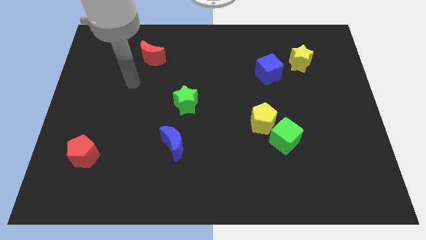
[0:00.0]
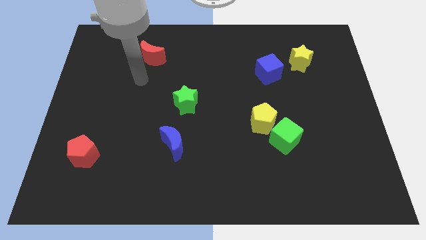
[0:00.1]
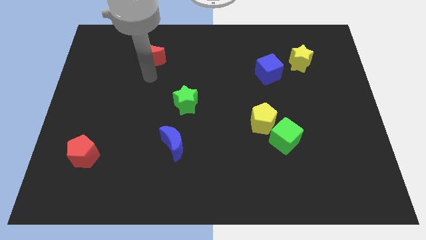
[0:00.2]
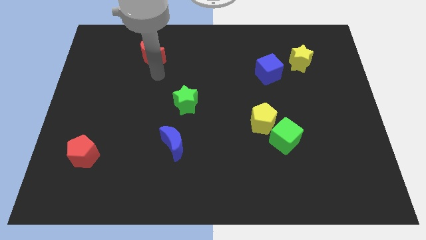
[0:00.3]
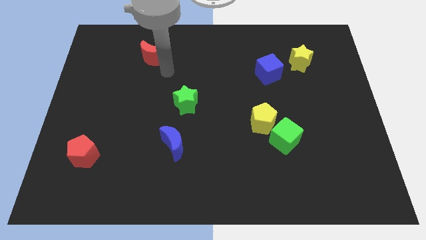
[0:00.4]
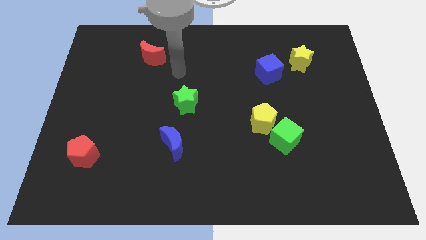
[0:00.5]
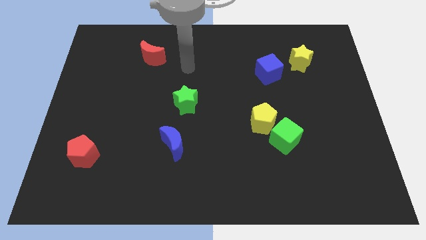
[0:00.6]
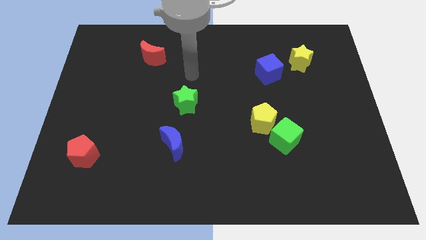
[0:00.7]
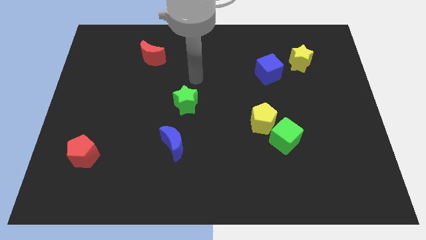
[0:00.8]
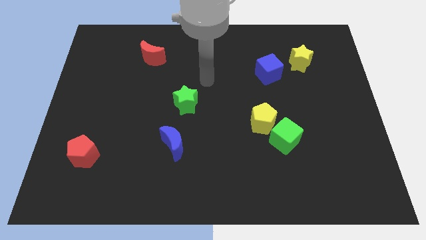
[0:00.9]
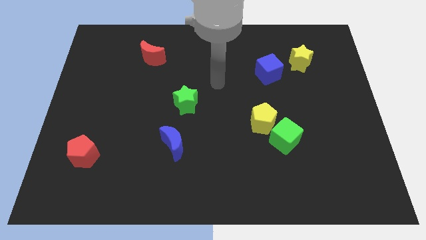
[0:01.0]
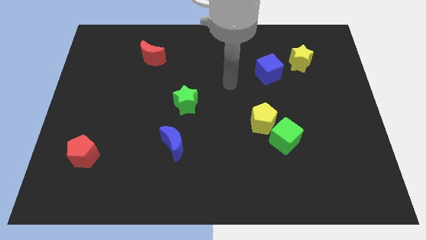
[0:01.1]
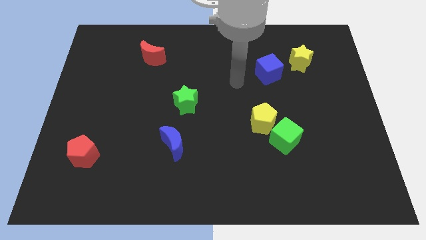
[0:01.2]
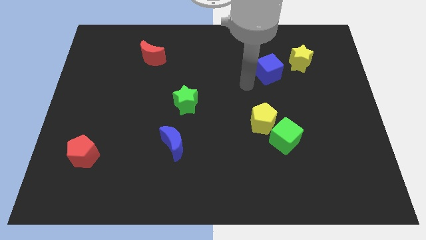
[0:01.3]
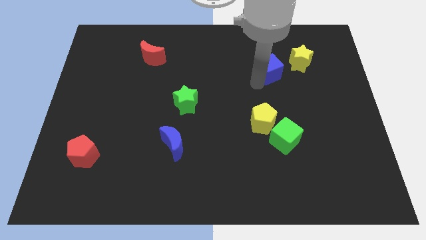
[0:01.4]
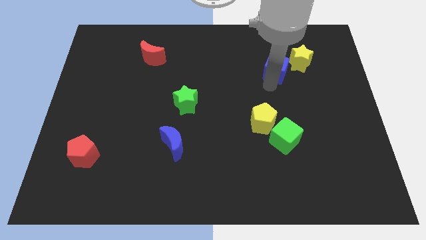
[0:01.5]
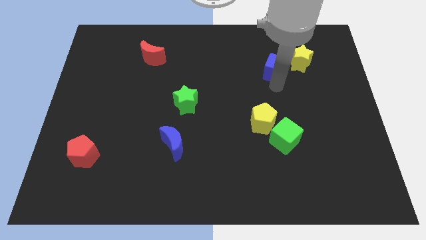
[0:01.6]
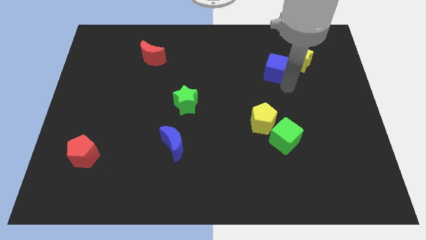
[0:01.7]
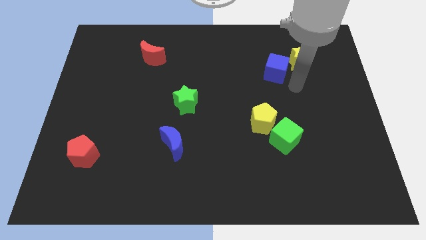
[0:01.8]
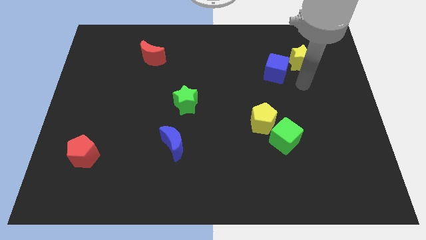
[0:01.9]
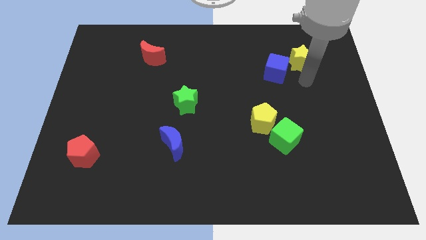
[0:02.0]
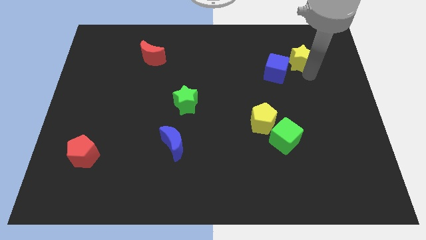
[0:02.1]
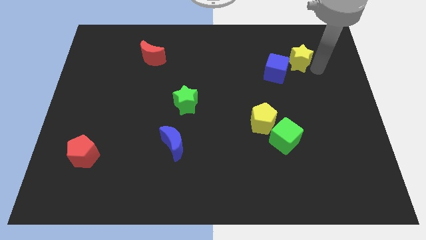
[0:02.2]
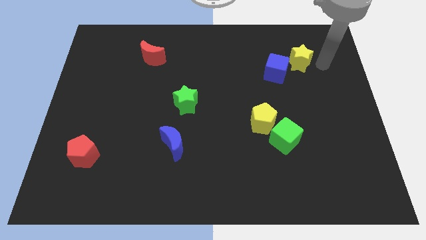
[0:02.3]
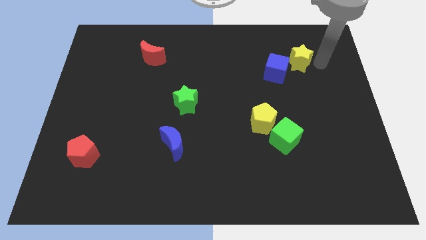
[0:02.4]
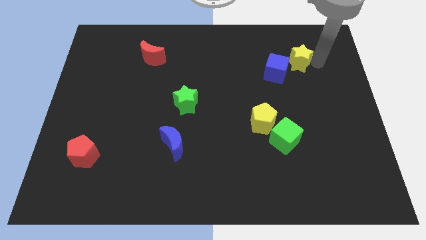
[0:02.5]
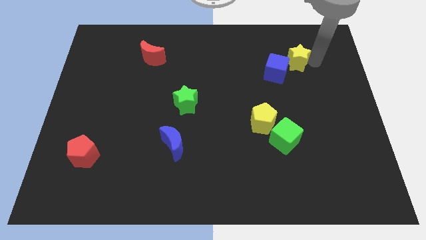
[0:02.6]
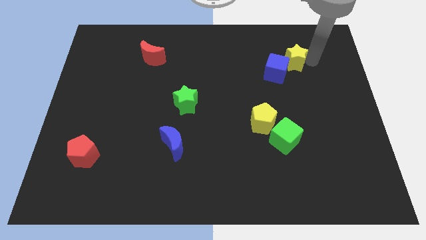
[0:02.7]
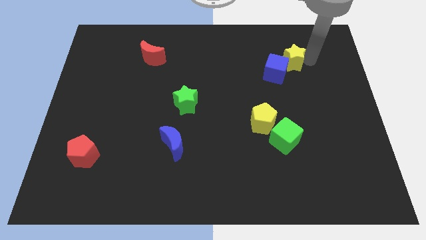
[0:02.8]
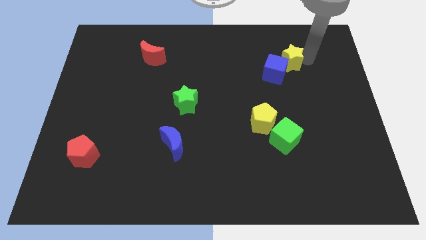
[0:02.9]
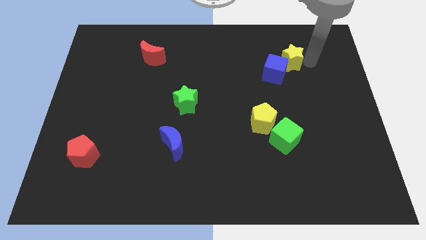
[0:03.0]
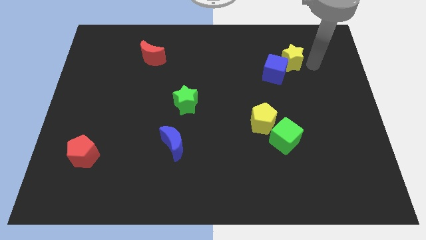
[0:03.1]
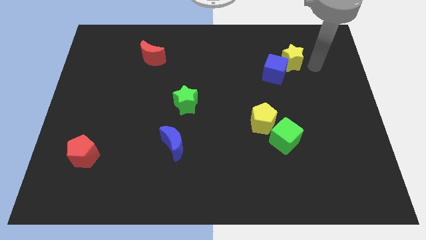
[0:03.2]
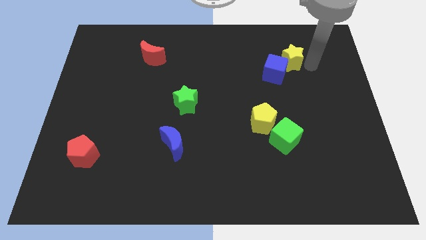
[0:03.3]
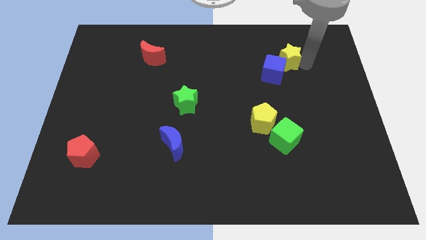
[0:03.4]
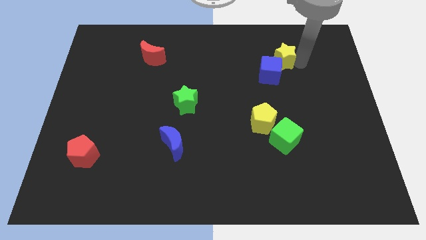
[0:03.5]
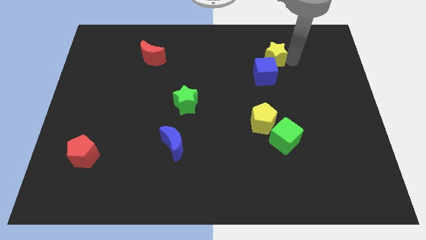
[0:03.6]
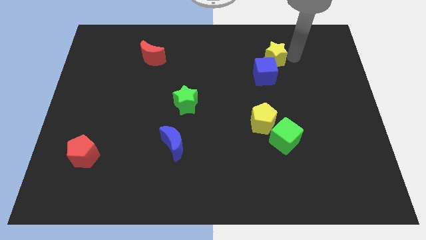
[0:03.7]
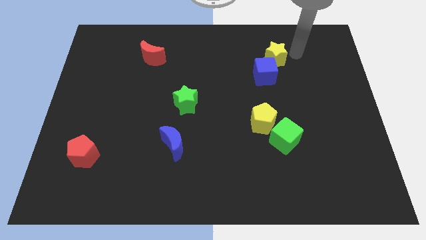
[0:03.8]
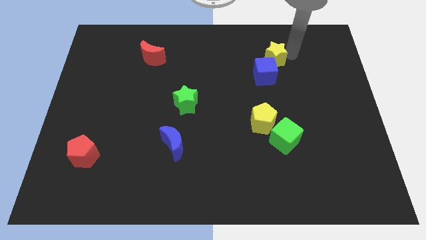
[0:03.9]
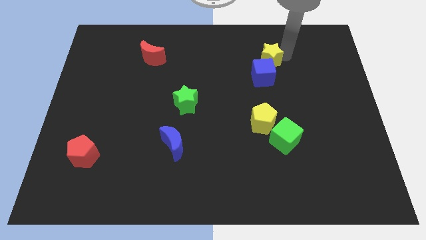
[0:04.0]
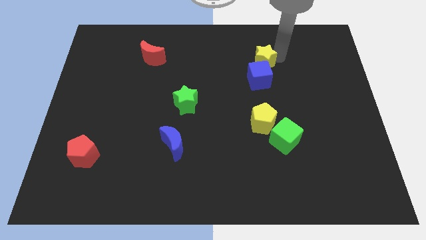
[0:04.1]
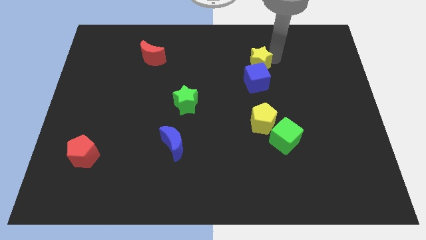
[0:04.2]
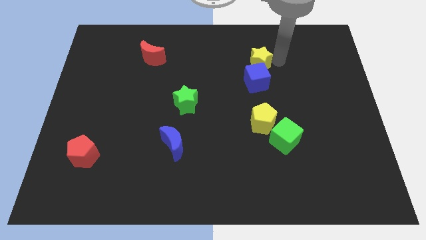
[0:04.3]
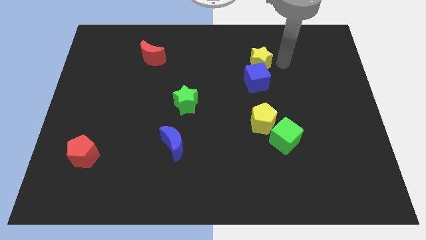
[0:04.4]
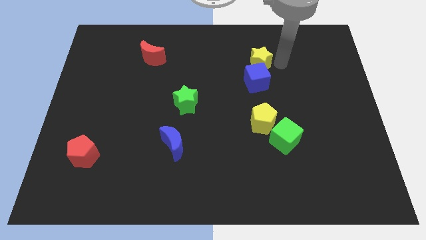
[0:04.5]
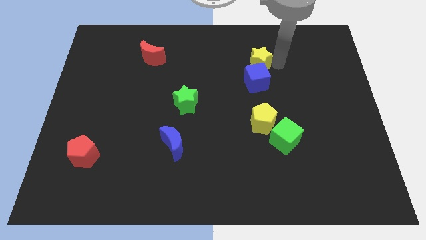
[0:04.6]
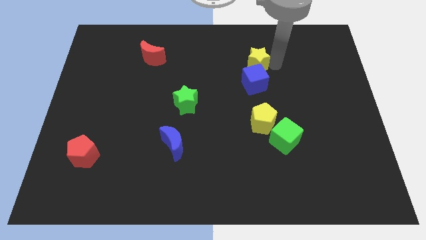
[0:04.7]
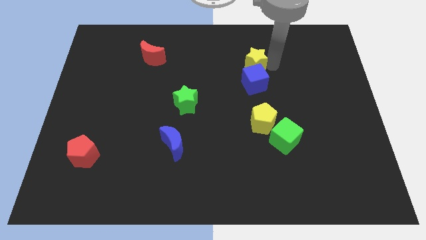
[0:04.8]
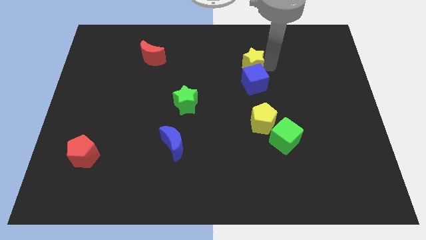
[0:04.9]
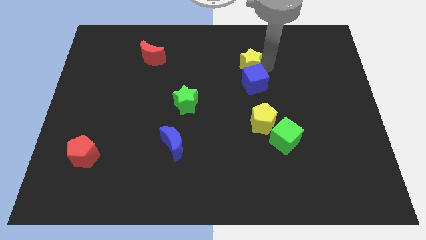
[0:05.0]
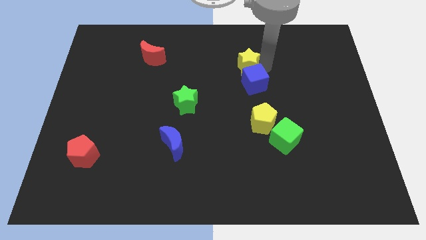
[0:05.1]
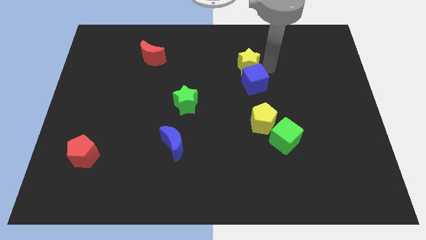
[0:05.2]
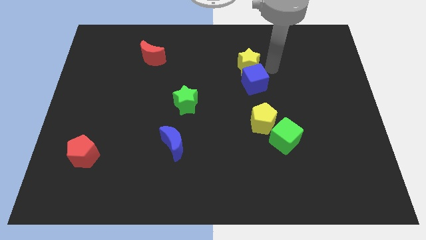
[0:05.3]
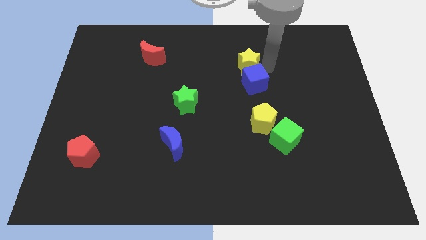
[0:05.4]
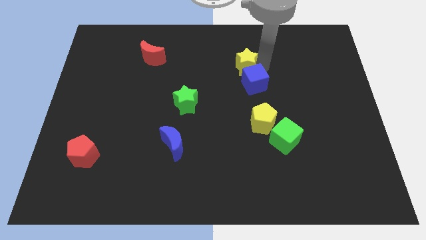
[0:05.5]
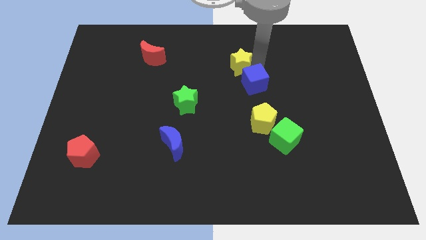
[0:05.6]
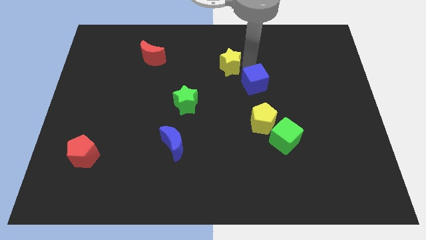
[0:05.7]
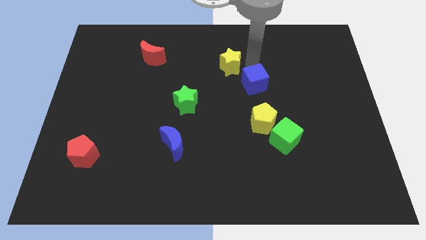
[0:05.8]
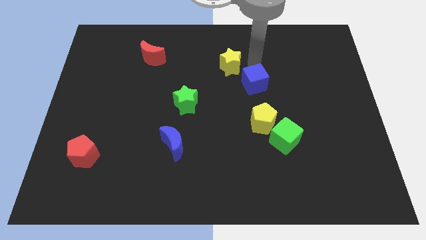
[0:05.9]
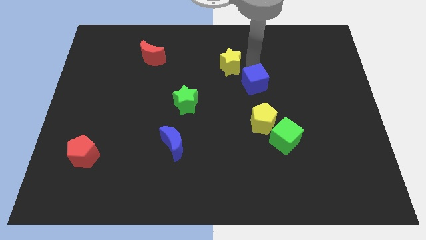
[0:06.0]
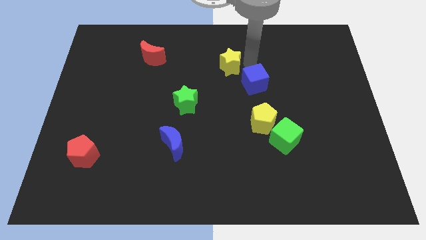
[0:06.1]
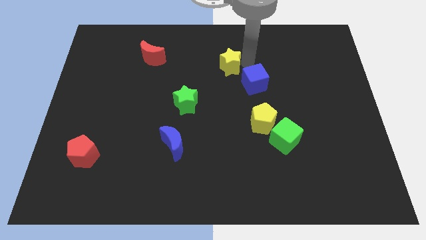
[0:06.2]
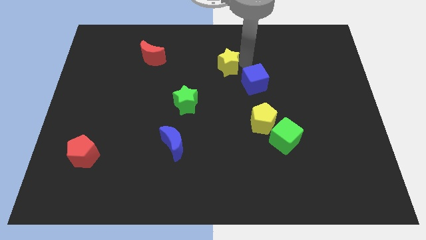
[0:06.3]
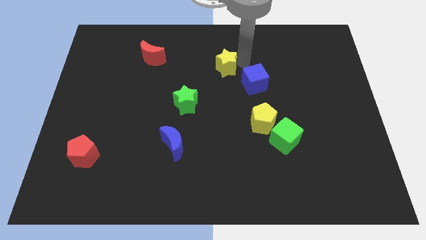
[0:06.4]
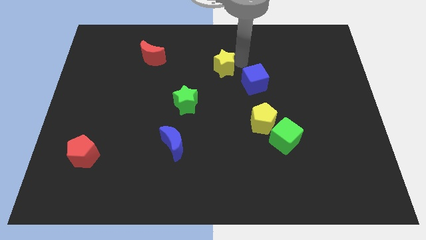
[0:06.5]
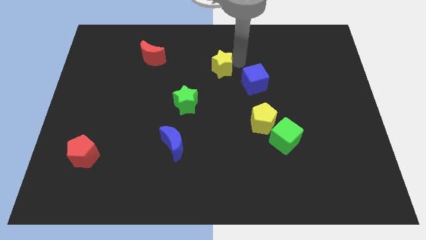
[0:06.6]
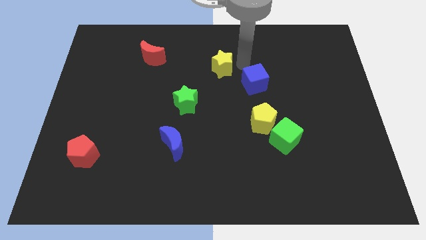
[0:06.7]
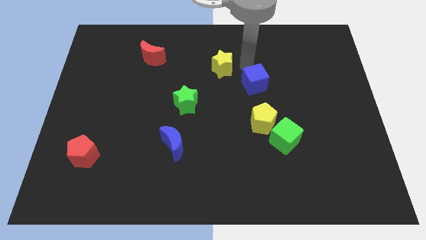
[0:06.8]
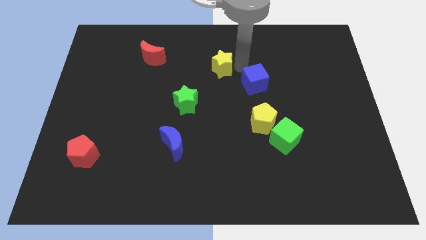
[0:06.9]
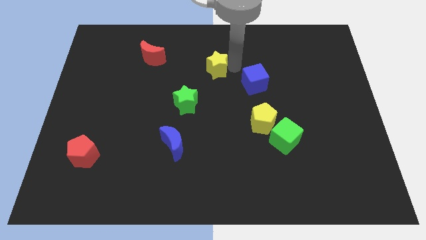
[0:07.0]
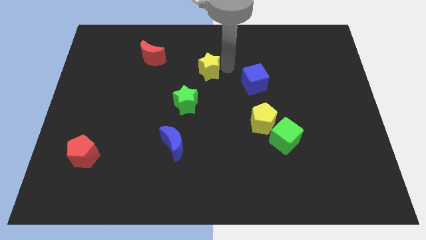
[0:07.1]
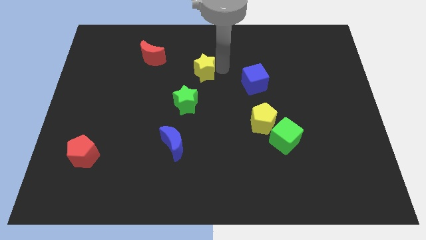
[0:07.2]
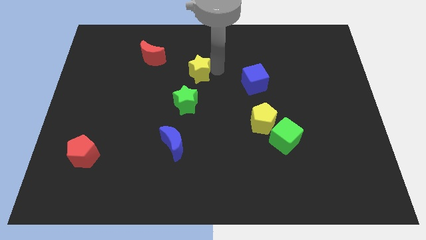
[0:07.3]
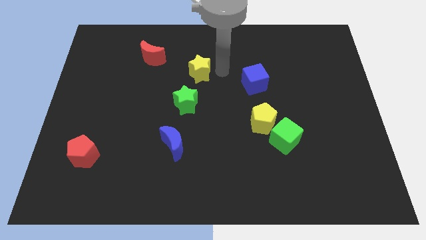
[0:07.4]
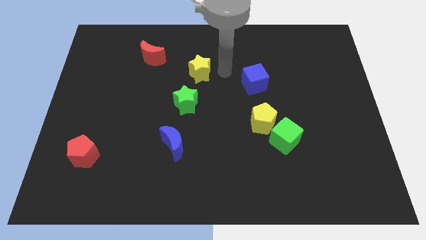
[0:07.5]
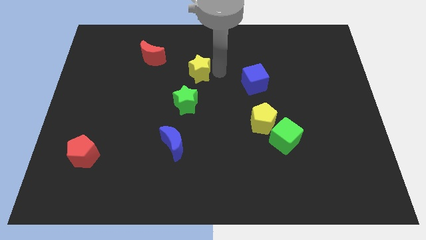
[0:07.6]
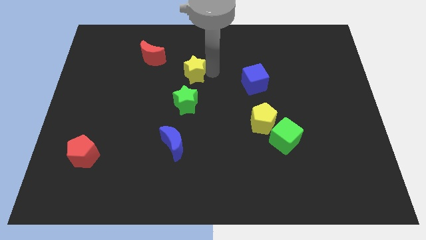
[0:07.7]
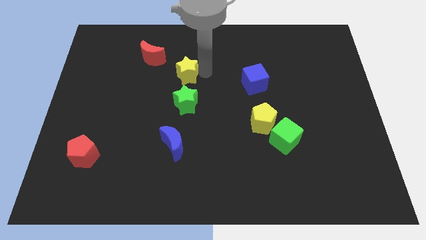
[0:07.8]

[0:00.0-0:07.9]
move the yellow star diagonally down and to the right of the red moon
